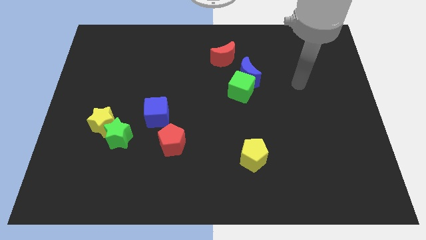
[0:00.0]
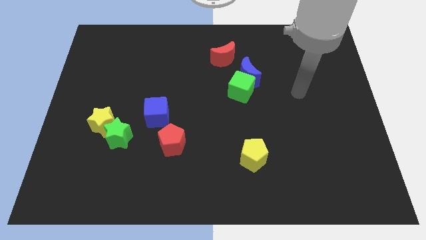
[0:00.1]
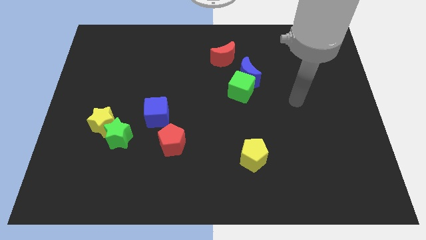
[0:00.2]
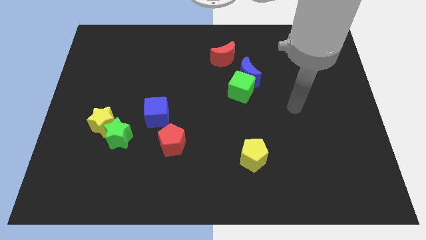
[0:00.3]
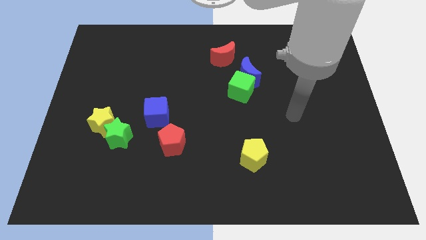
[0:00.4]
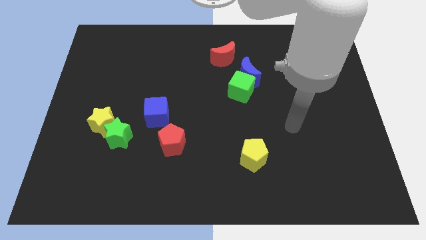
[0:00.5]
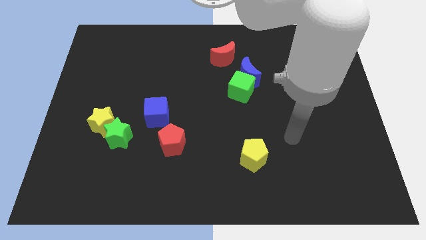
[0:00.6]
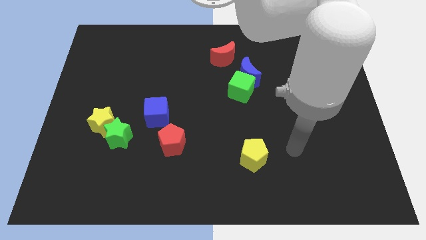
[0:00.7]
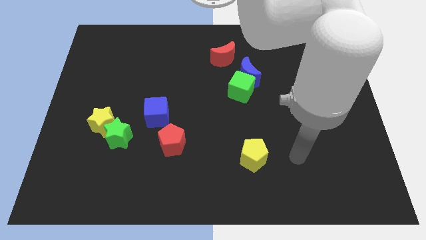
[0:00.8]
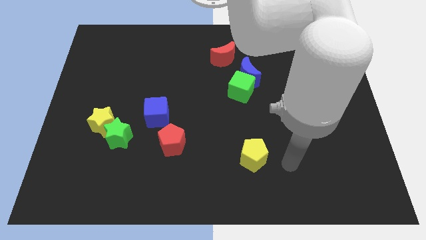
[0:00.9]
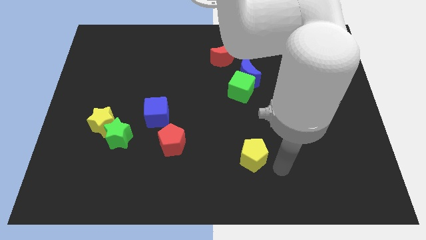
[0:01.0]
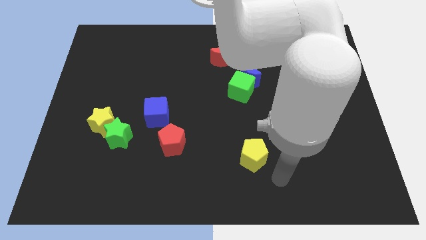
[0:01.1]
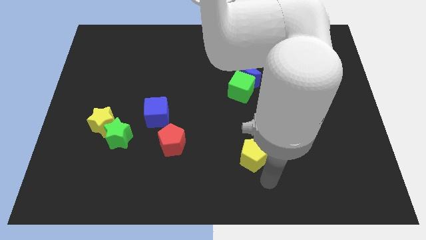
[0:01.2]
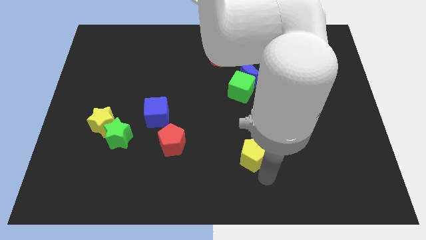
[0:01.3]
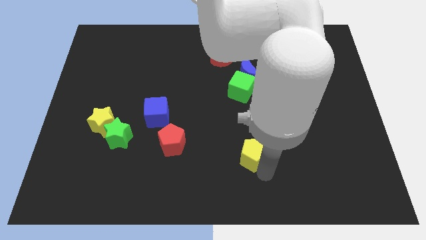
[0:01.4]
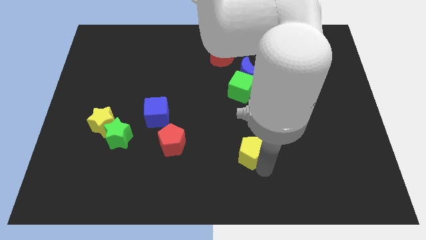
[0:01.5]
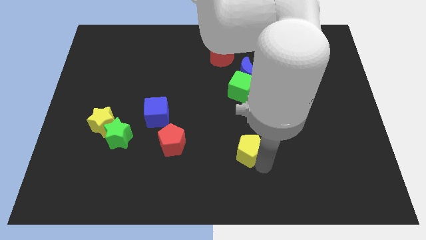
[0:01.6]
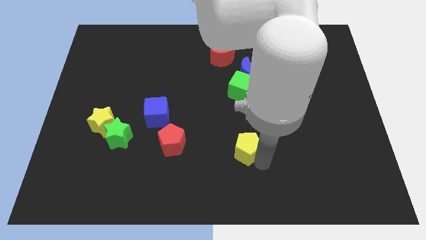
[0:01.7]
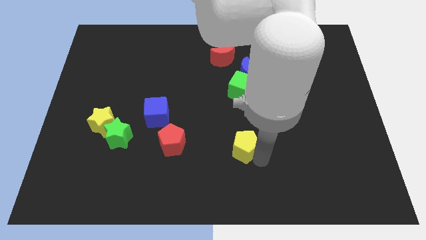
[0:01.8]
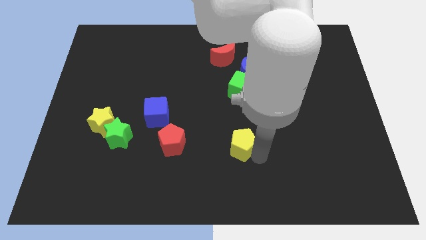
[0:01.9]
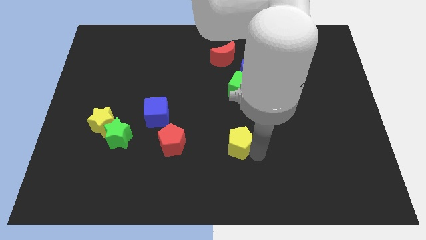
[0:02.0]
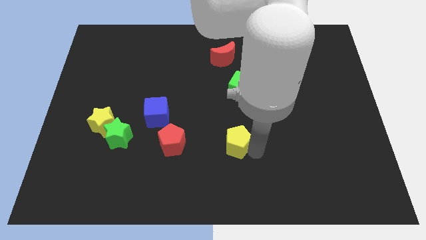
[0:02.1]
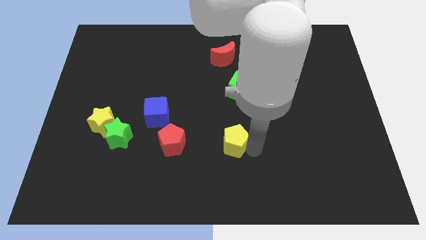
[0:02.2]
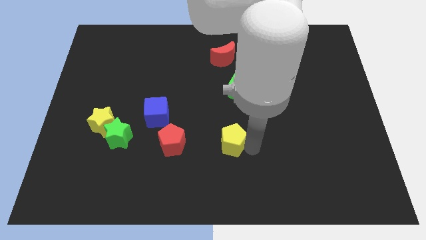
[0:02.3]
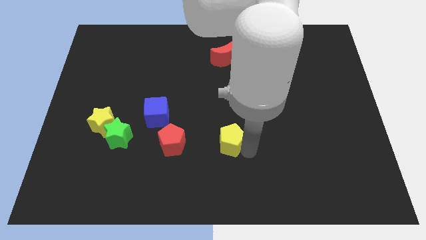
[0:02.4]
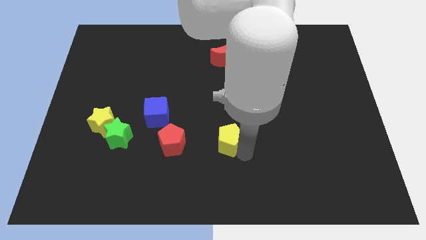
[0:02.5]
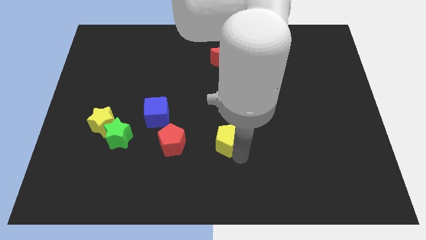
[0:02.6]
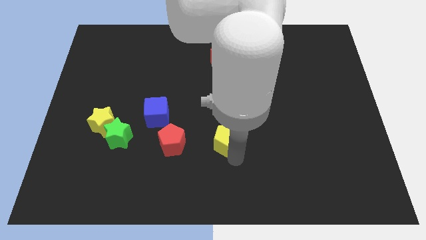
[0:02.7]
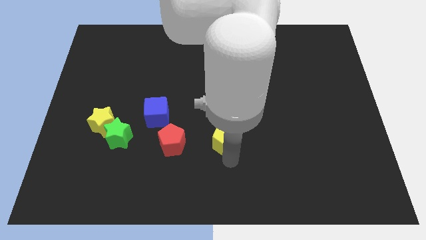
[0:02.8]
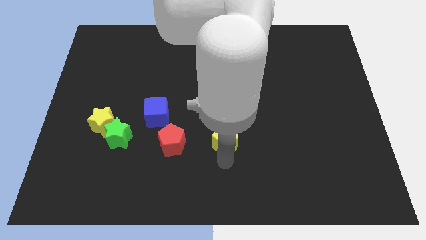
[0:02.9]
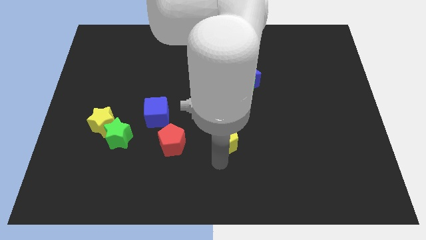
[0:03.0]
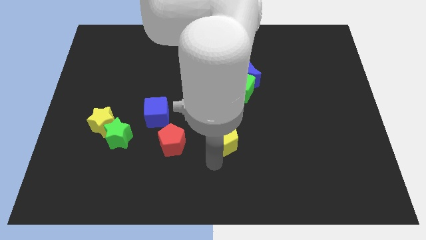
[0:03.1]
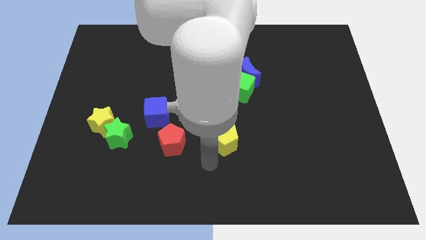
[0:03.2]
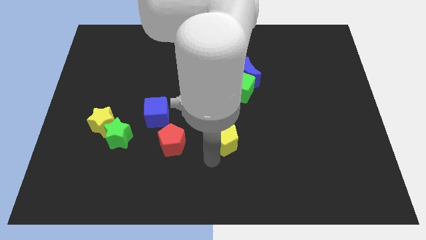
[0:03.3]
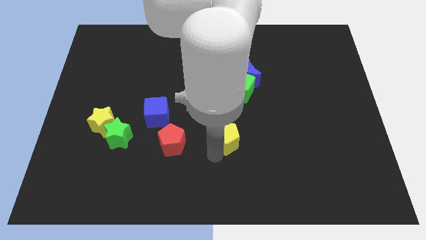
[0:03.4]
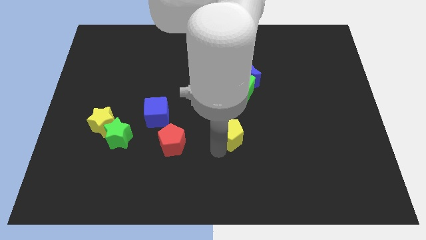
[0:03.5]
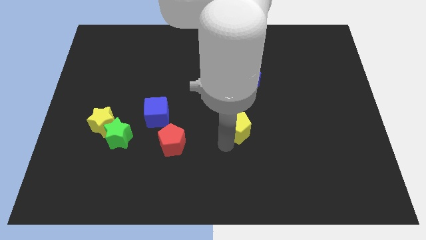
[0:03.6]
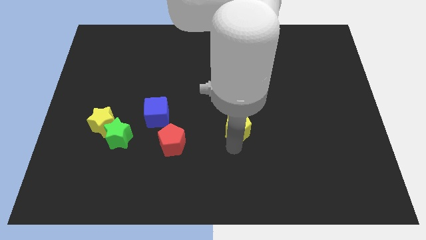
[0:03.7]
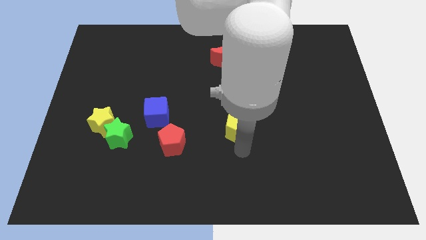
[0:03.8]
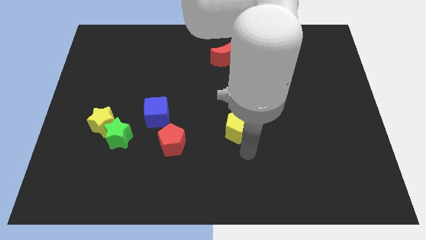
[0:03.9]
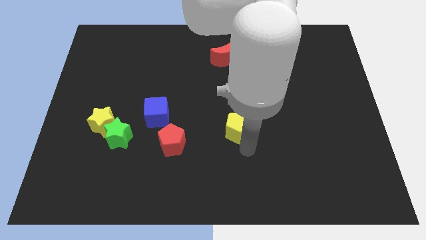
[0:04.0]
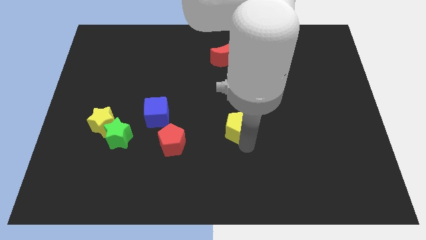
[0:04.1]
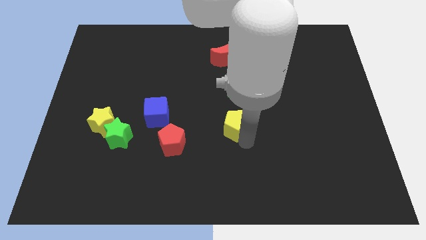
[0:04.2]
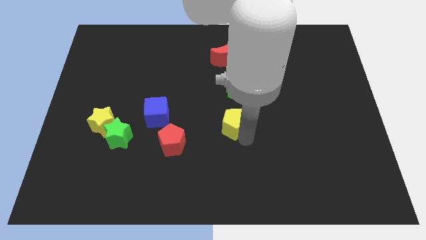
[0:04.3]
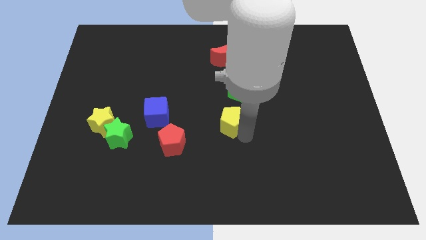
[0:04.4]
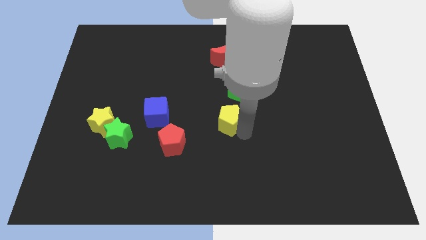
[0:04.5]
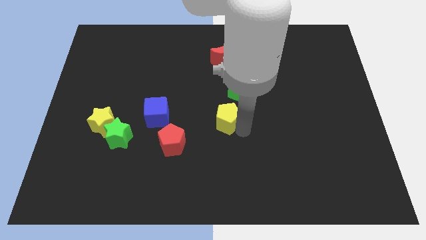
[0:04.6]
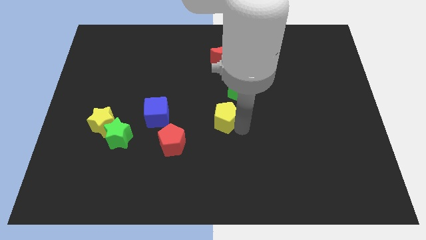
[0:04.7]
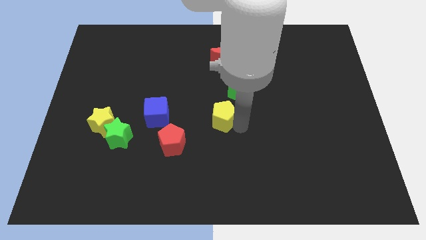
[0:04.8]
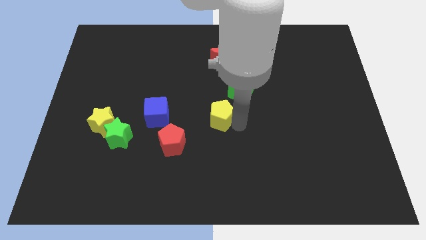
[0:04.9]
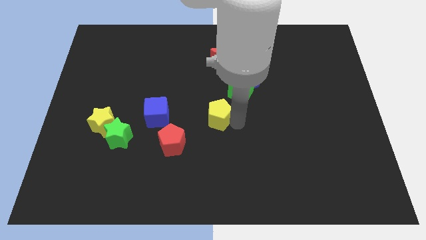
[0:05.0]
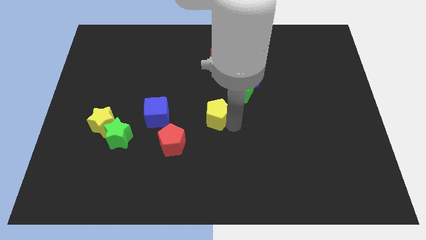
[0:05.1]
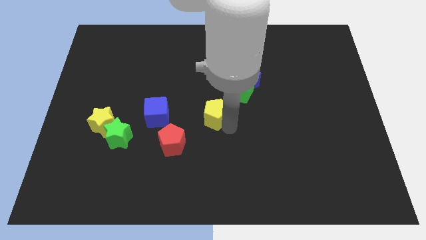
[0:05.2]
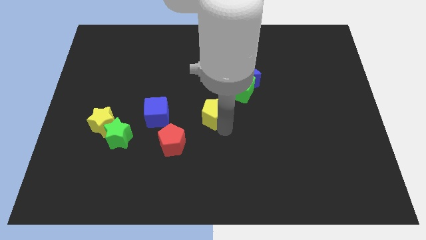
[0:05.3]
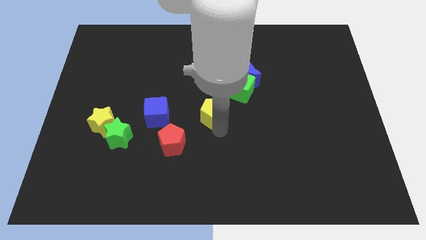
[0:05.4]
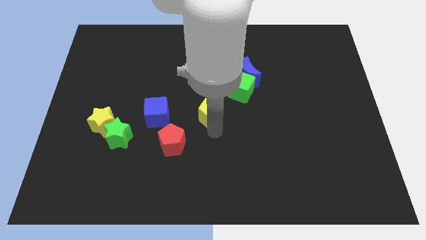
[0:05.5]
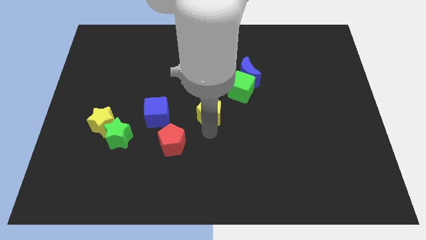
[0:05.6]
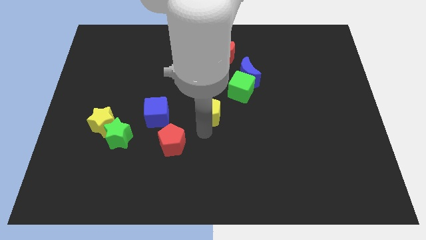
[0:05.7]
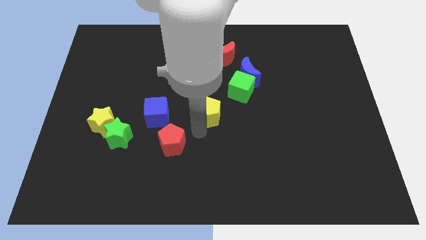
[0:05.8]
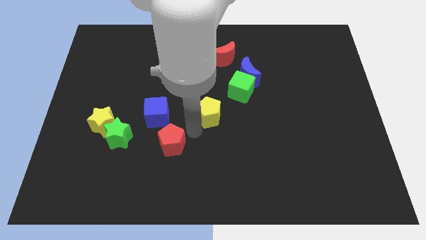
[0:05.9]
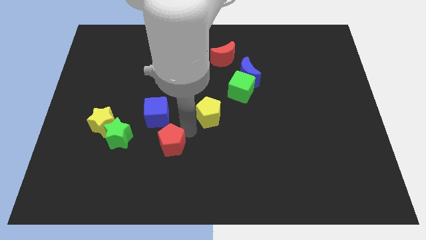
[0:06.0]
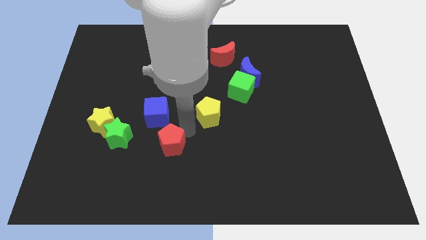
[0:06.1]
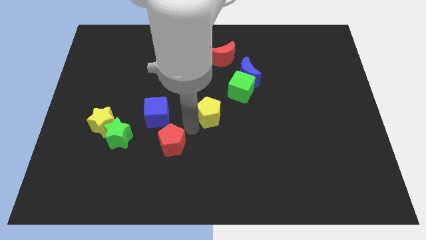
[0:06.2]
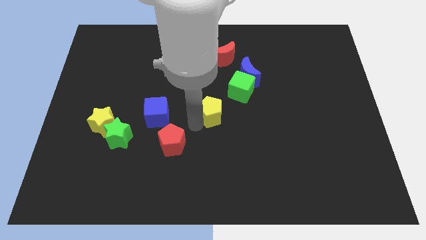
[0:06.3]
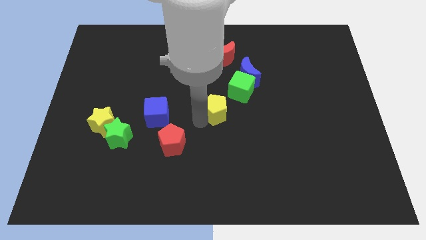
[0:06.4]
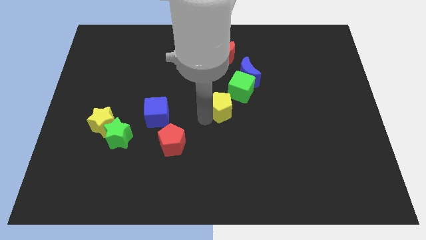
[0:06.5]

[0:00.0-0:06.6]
put the yellow pentagon to the bottom left side of the blue moon

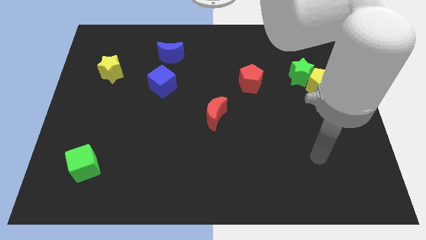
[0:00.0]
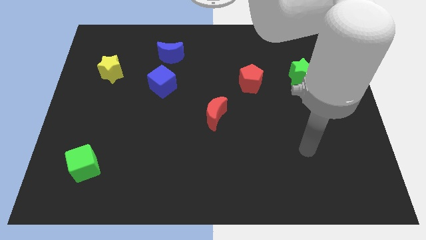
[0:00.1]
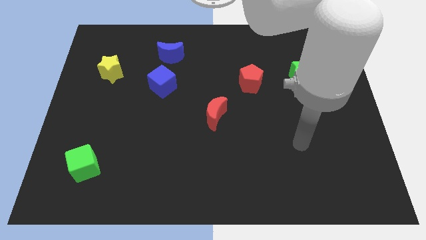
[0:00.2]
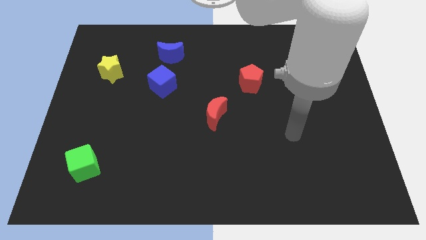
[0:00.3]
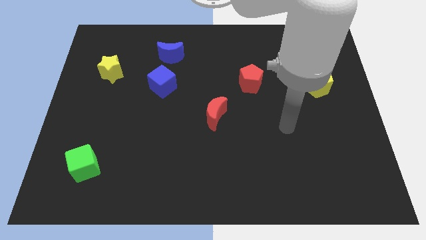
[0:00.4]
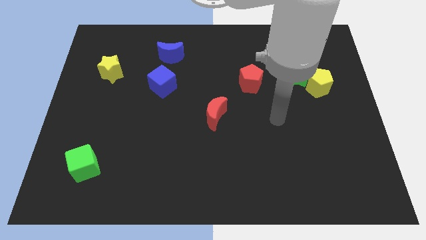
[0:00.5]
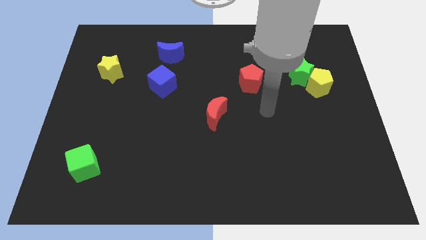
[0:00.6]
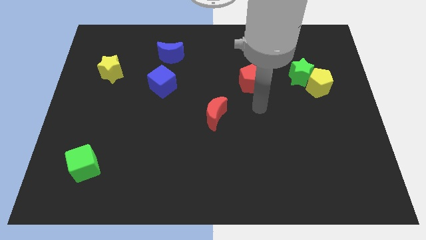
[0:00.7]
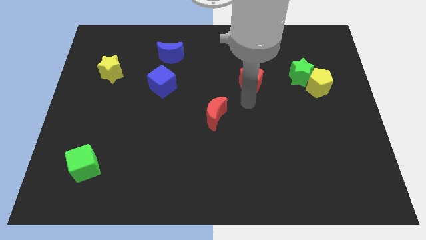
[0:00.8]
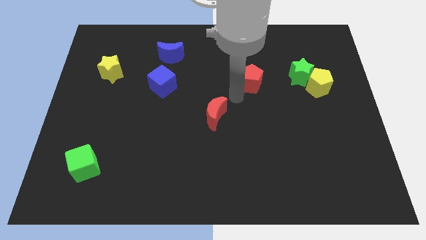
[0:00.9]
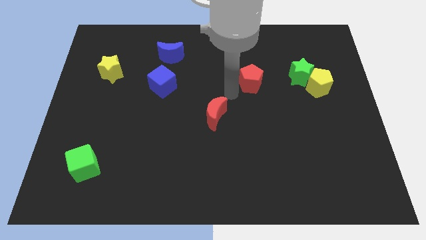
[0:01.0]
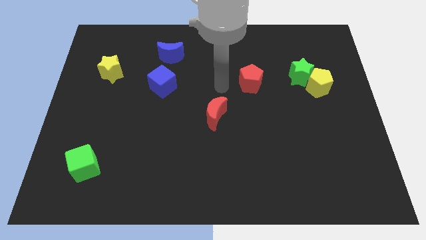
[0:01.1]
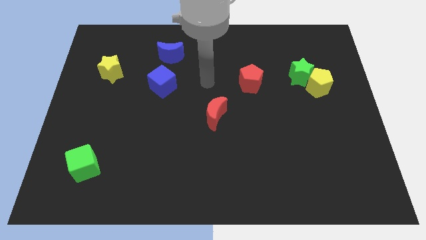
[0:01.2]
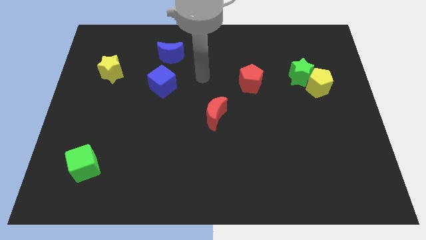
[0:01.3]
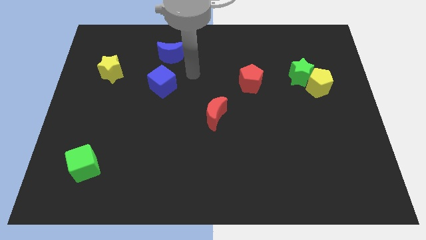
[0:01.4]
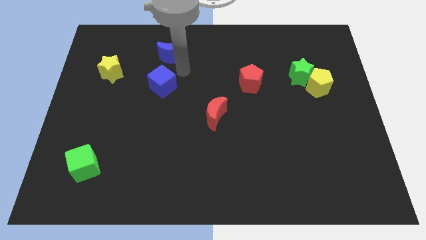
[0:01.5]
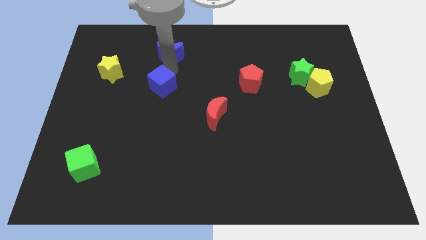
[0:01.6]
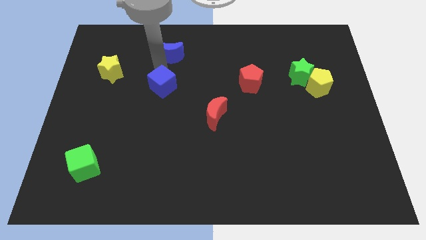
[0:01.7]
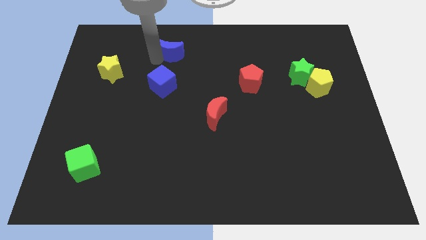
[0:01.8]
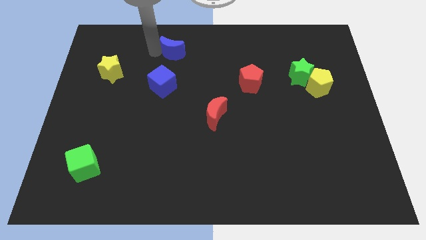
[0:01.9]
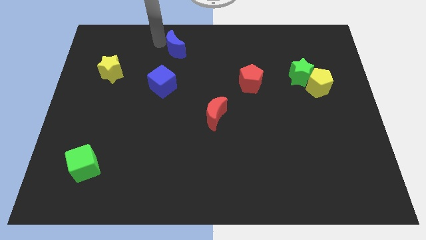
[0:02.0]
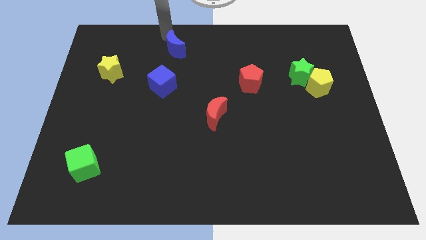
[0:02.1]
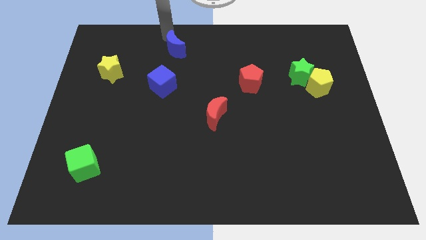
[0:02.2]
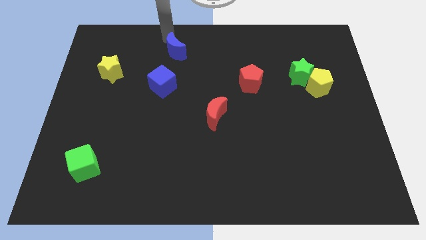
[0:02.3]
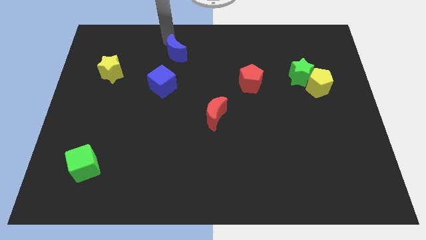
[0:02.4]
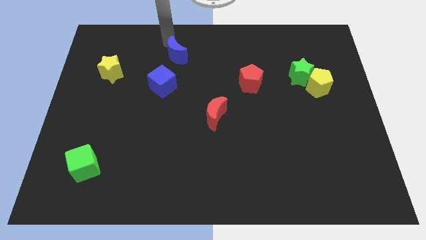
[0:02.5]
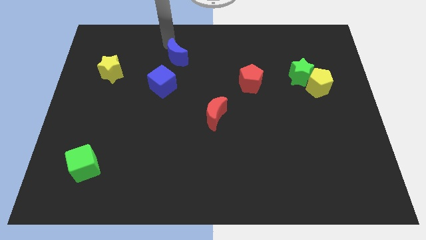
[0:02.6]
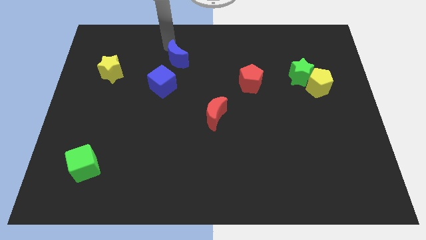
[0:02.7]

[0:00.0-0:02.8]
push the blue moon diagonally up and to the right of the blue cube
